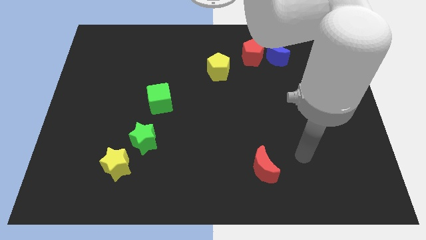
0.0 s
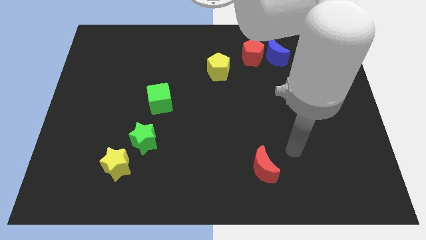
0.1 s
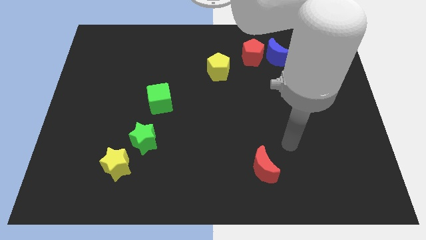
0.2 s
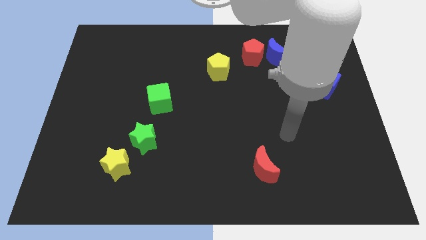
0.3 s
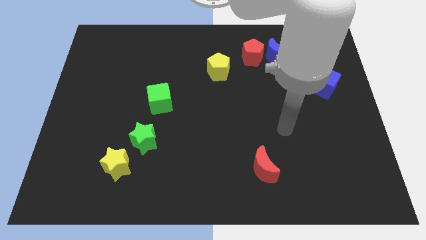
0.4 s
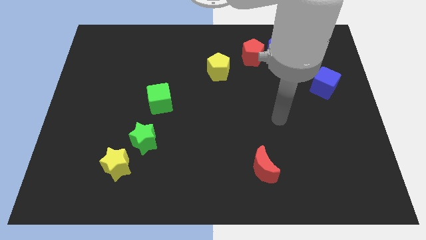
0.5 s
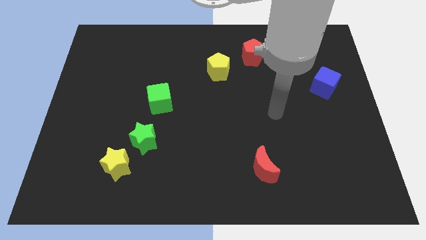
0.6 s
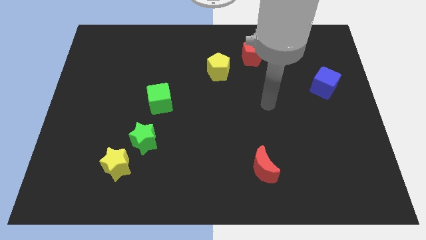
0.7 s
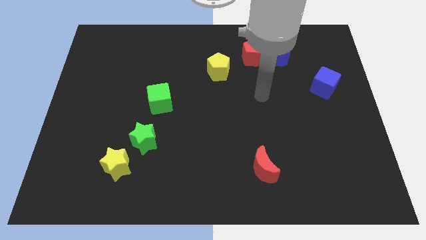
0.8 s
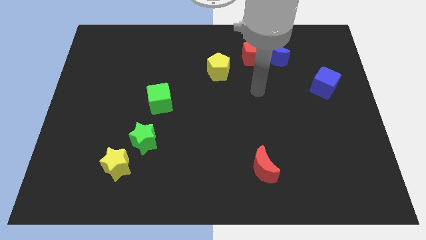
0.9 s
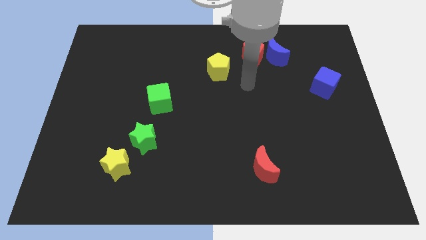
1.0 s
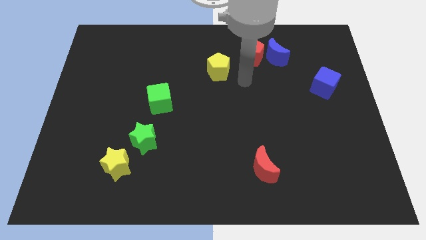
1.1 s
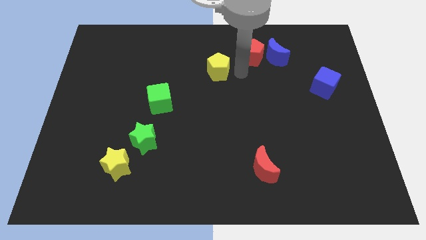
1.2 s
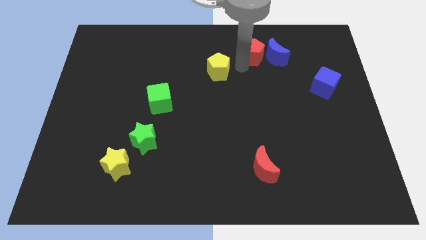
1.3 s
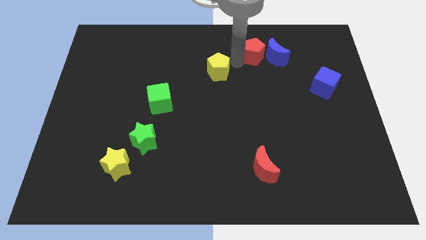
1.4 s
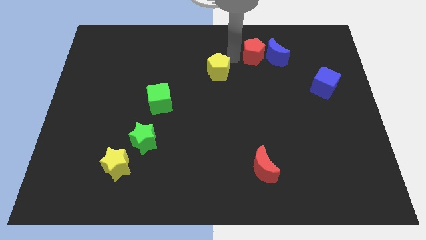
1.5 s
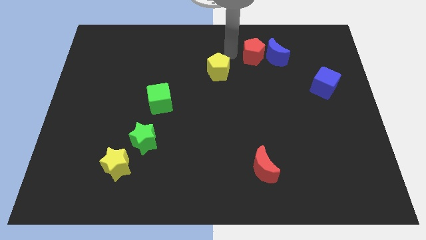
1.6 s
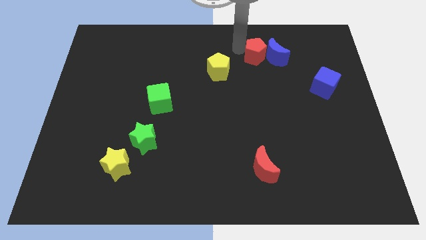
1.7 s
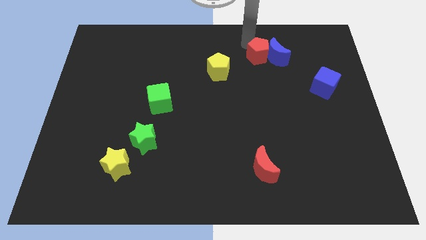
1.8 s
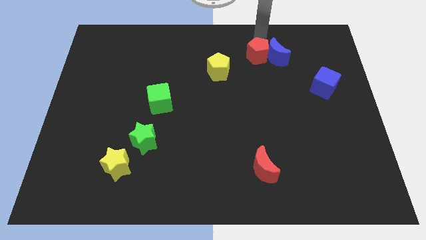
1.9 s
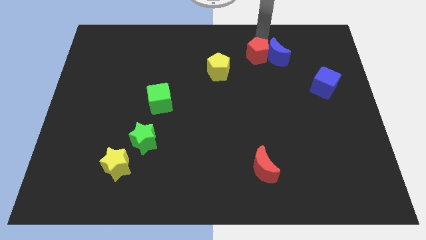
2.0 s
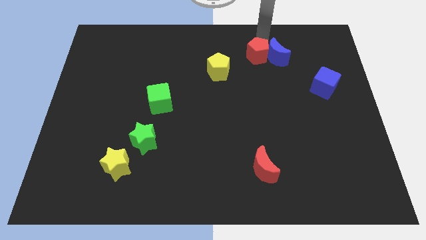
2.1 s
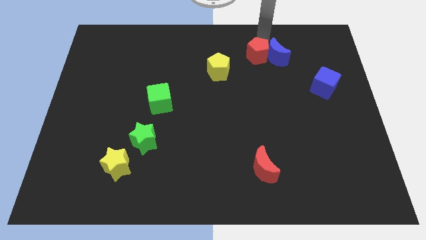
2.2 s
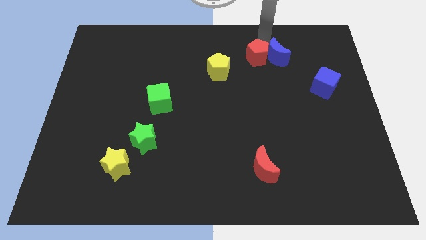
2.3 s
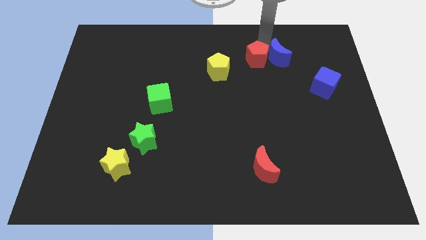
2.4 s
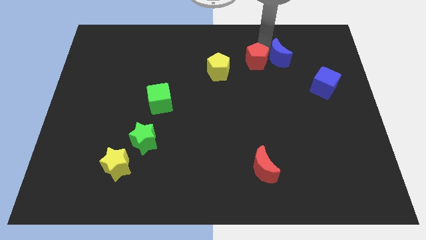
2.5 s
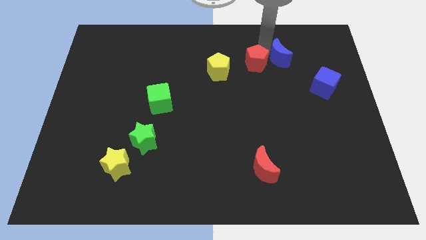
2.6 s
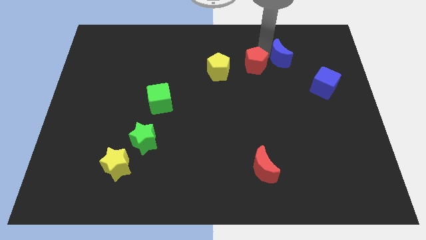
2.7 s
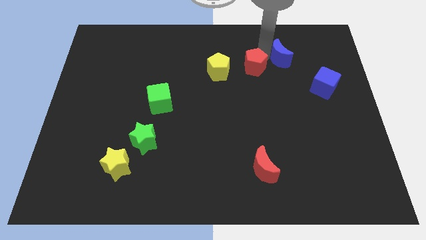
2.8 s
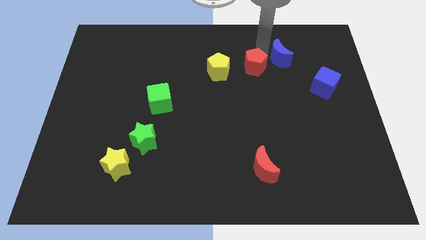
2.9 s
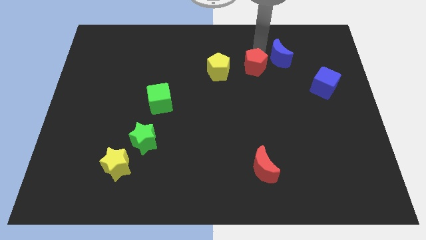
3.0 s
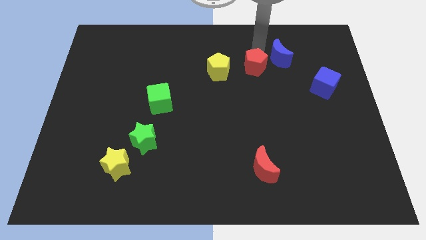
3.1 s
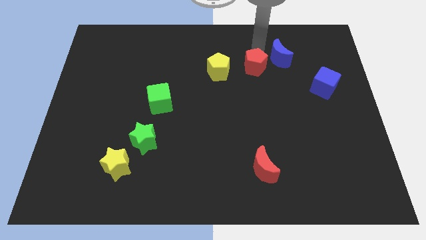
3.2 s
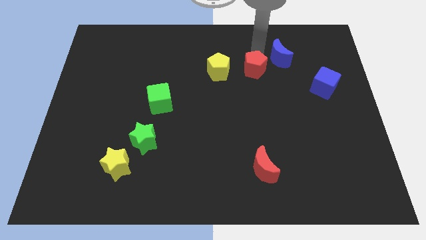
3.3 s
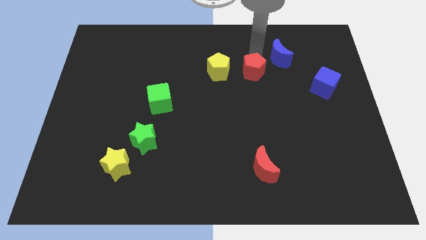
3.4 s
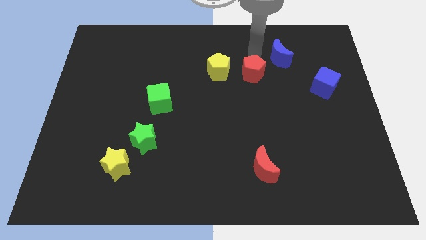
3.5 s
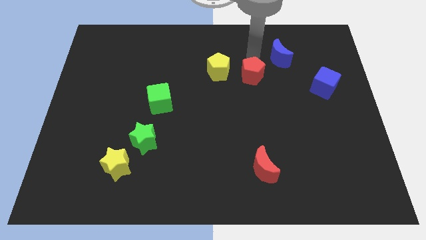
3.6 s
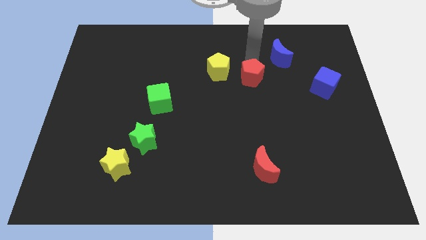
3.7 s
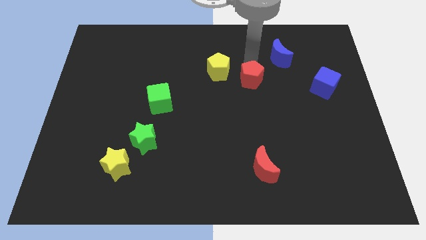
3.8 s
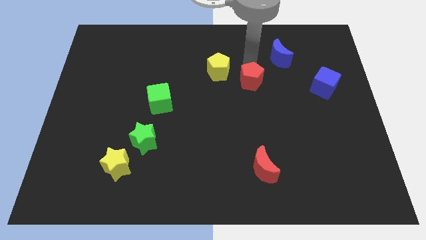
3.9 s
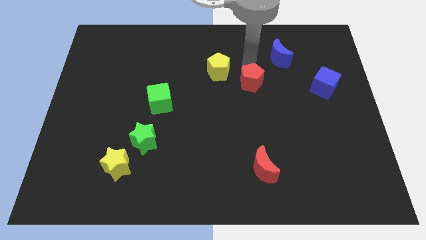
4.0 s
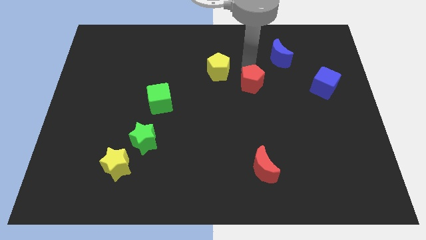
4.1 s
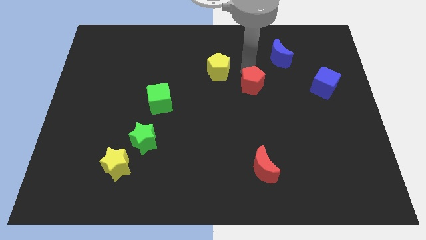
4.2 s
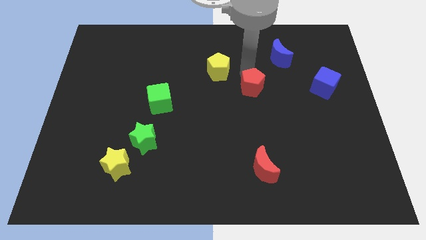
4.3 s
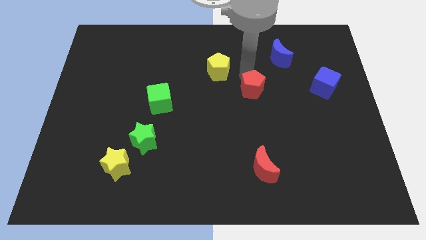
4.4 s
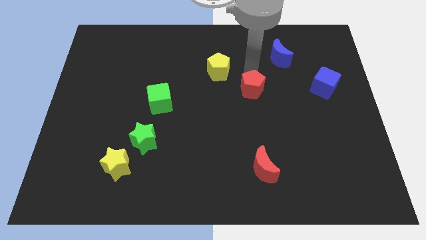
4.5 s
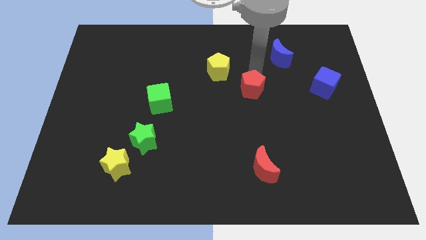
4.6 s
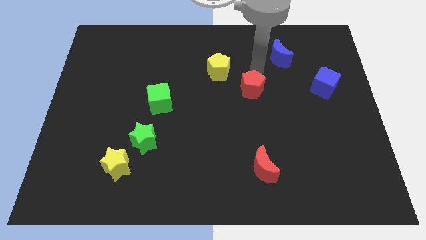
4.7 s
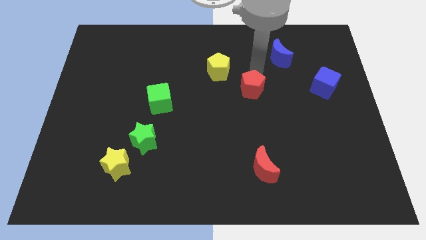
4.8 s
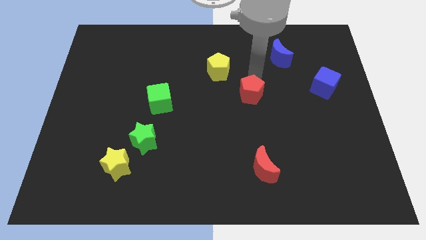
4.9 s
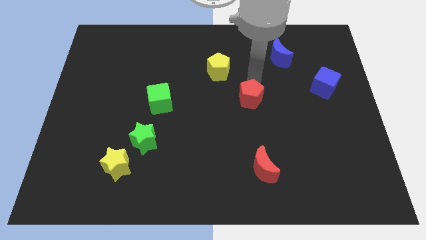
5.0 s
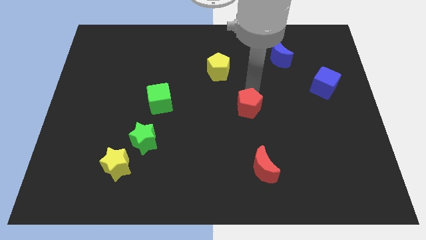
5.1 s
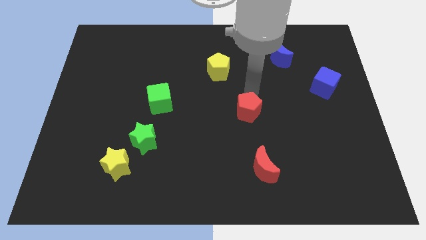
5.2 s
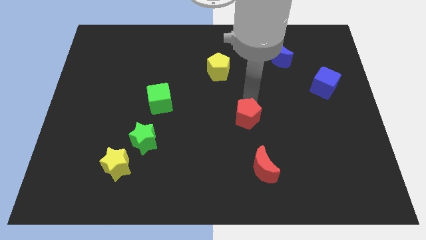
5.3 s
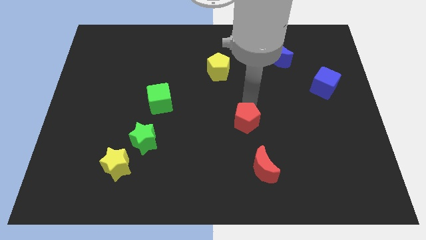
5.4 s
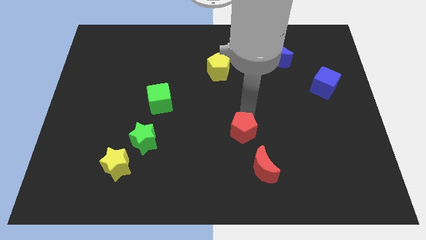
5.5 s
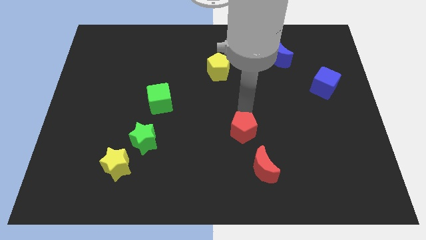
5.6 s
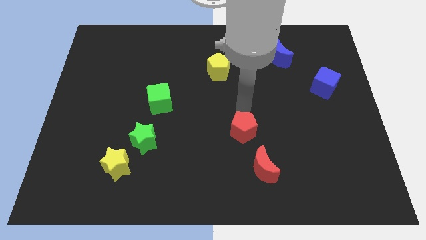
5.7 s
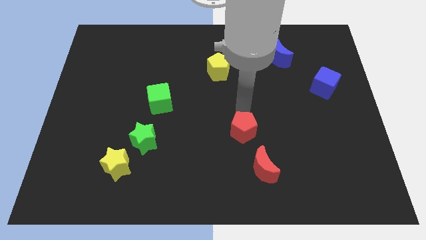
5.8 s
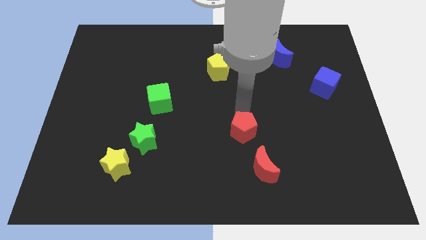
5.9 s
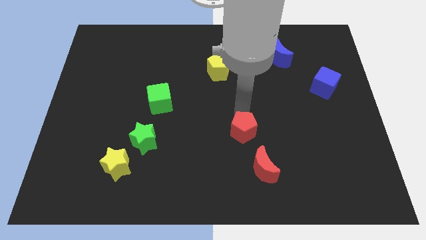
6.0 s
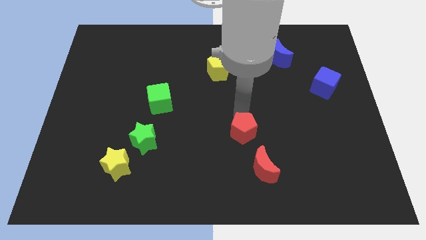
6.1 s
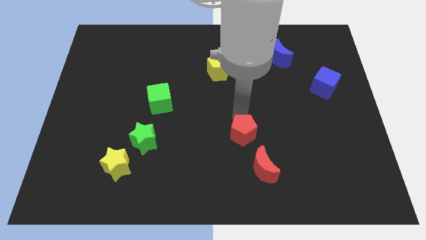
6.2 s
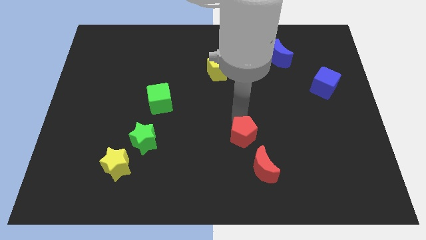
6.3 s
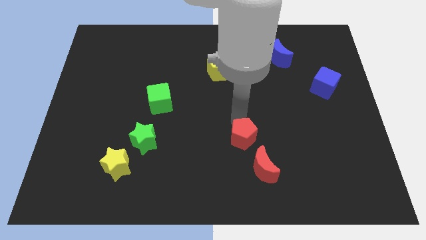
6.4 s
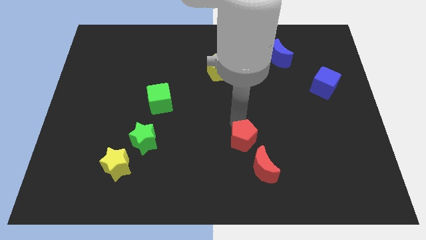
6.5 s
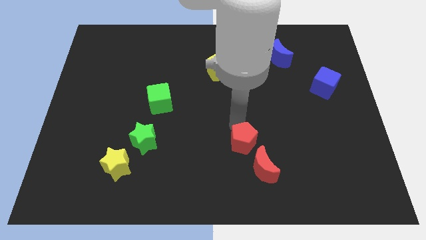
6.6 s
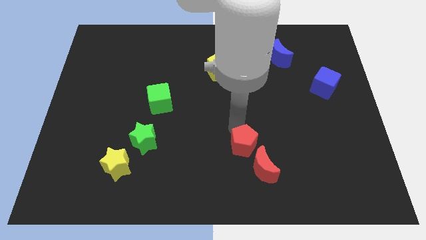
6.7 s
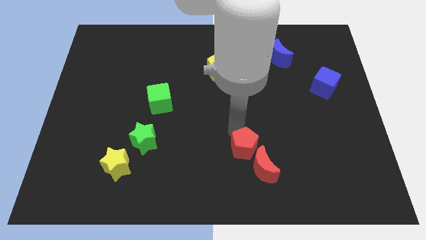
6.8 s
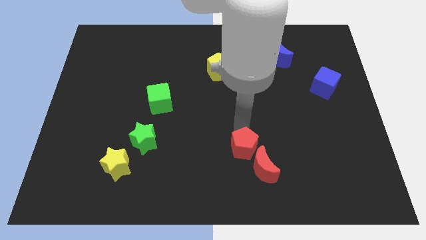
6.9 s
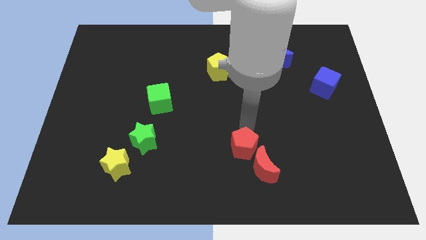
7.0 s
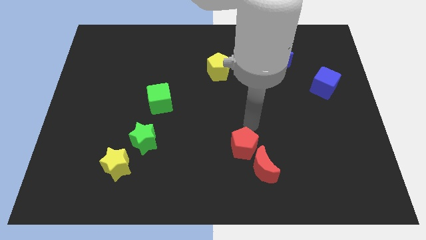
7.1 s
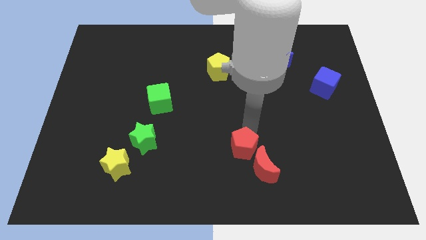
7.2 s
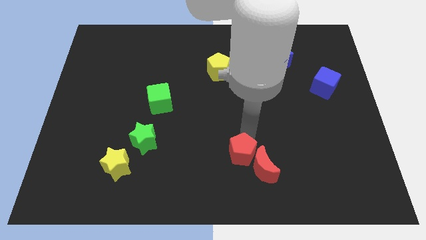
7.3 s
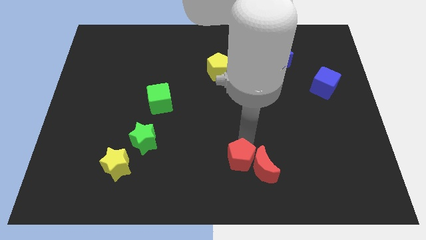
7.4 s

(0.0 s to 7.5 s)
slide the red pentagon to the bottom side
